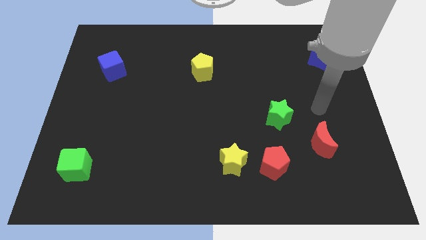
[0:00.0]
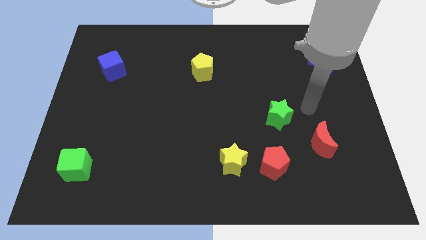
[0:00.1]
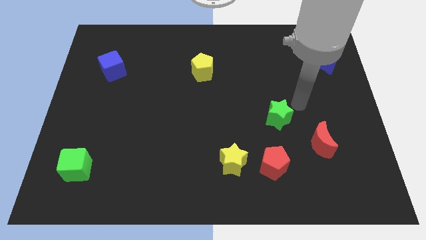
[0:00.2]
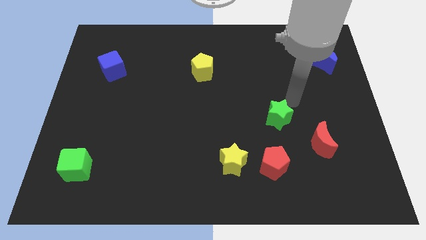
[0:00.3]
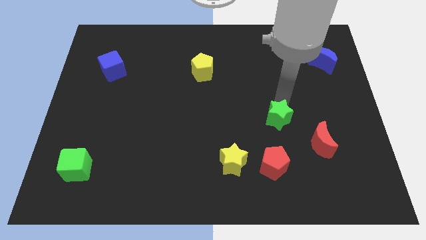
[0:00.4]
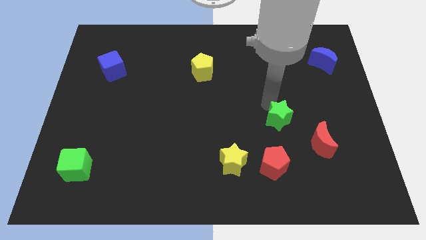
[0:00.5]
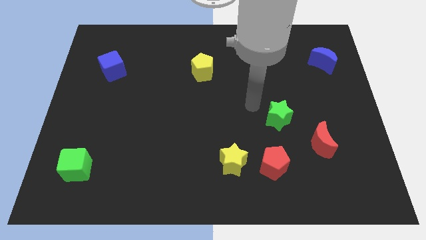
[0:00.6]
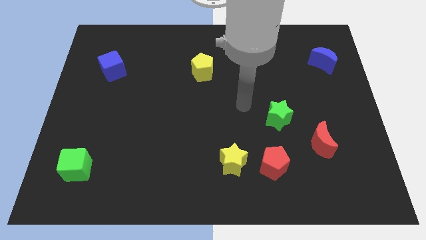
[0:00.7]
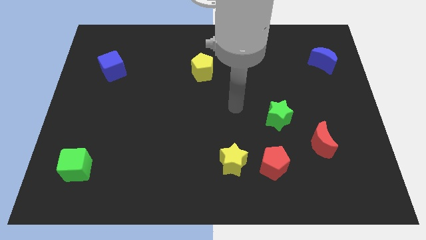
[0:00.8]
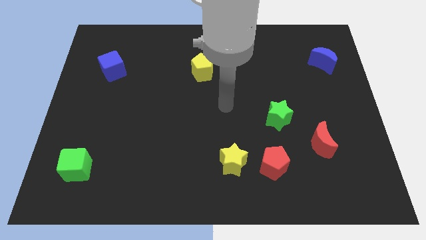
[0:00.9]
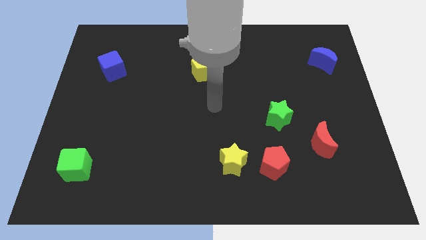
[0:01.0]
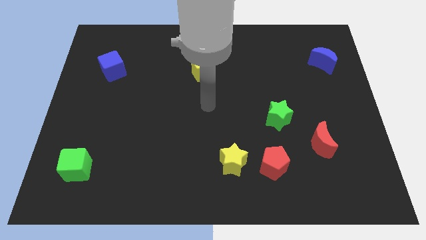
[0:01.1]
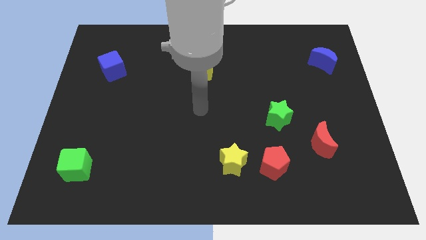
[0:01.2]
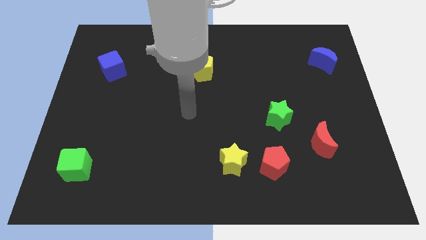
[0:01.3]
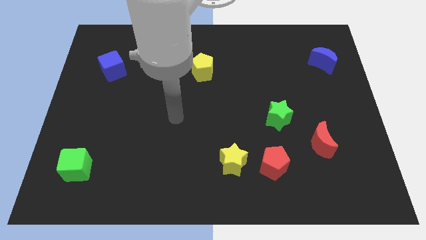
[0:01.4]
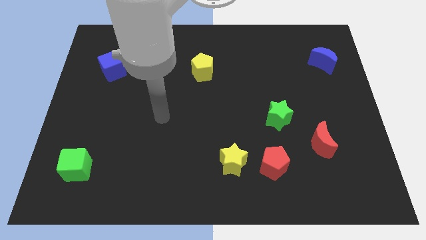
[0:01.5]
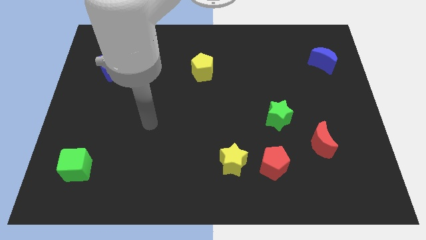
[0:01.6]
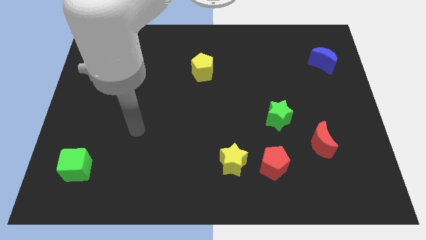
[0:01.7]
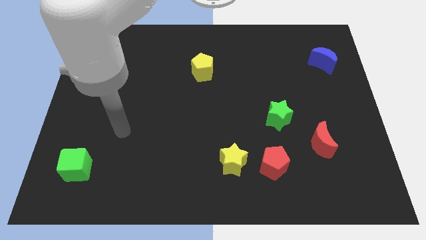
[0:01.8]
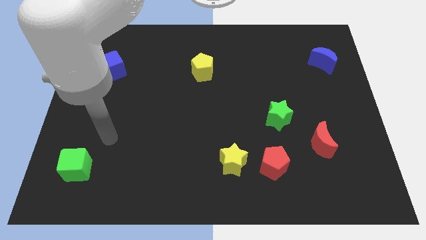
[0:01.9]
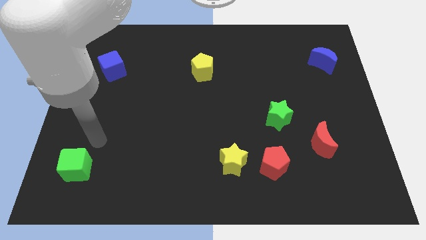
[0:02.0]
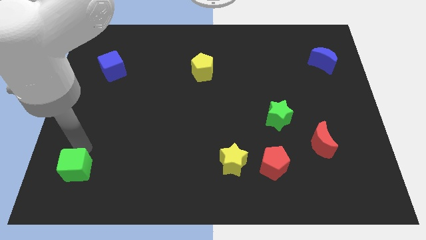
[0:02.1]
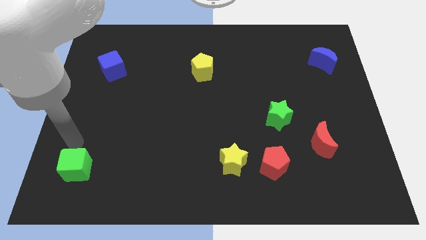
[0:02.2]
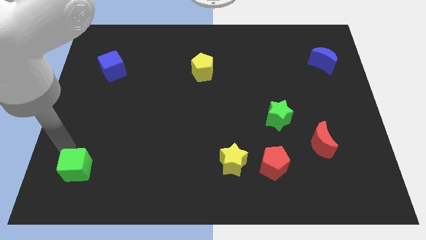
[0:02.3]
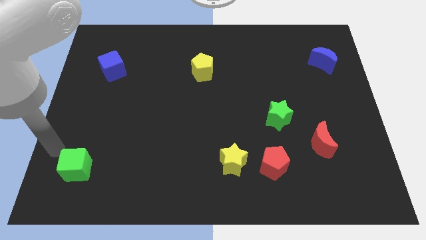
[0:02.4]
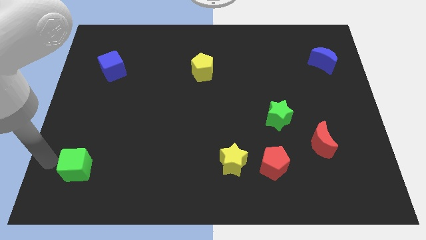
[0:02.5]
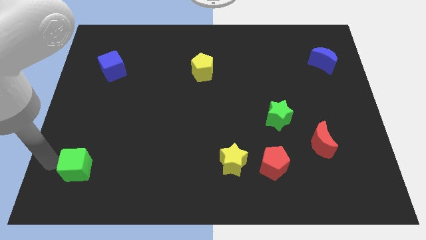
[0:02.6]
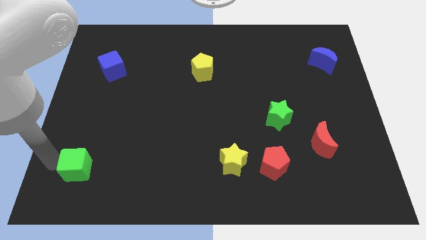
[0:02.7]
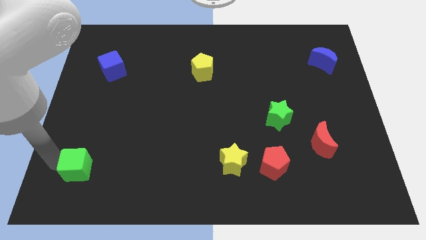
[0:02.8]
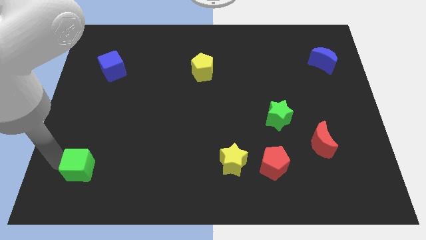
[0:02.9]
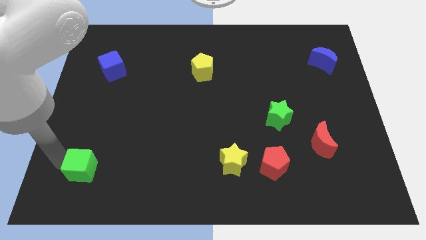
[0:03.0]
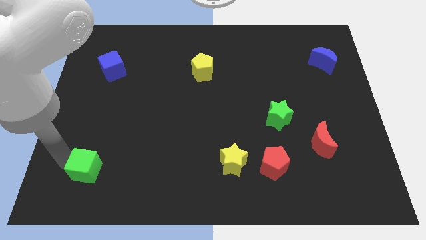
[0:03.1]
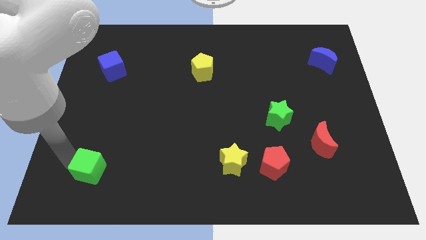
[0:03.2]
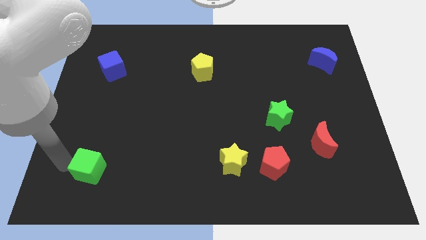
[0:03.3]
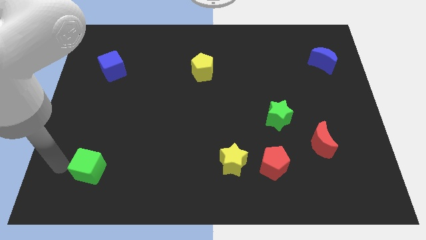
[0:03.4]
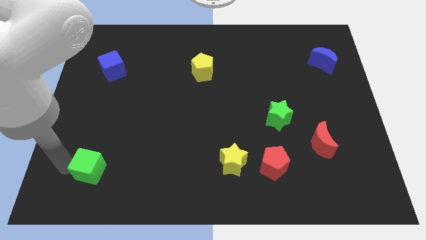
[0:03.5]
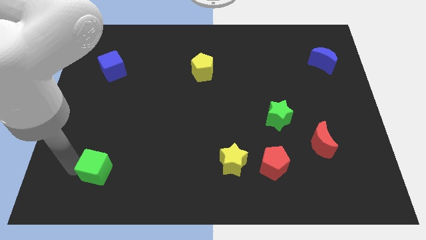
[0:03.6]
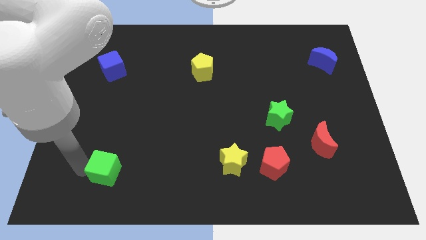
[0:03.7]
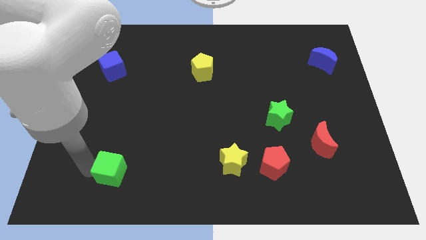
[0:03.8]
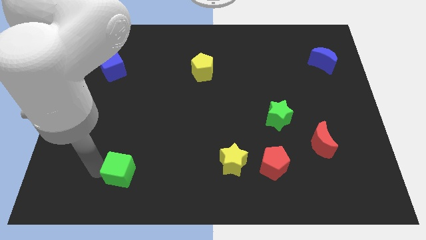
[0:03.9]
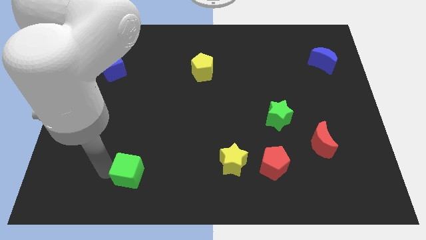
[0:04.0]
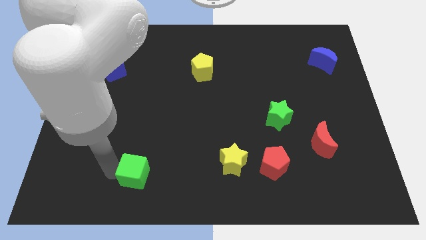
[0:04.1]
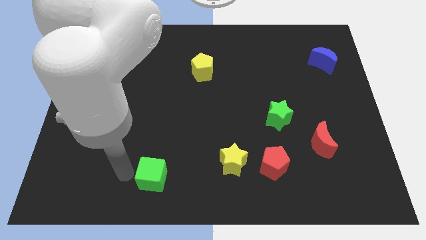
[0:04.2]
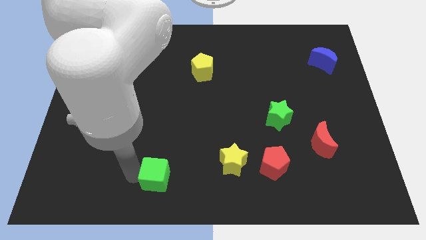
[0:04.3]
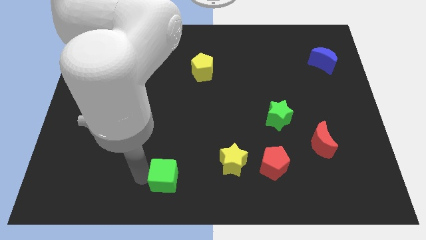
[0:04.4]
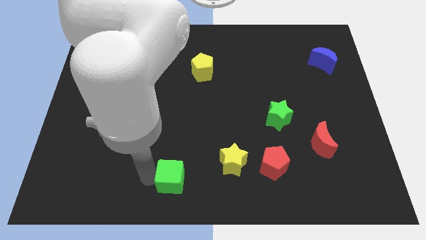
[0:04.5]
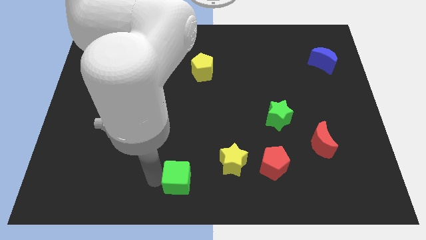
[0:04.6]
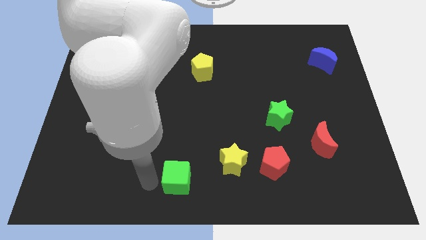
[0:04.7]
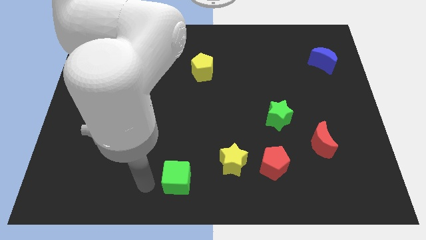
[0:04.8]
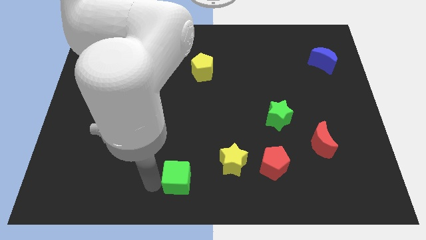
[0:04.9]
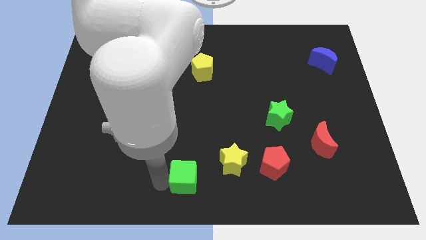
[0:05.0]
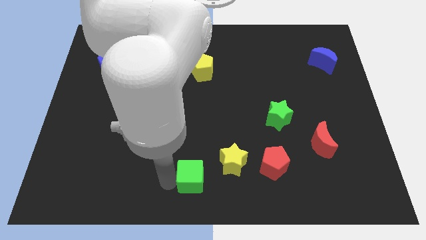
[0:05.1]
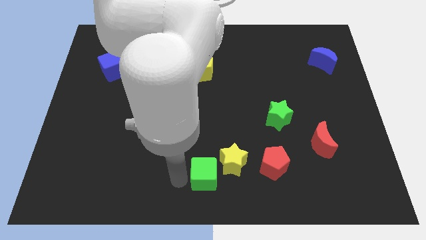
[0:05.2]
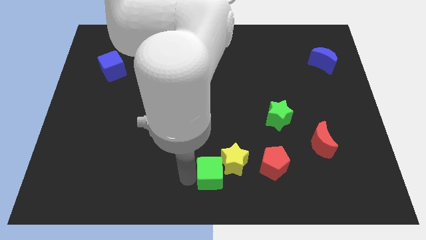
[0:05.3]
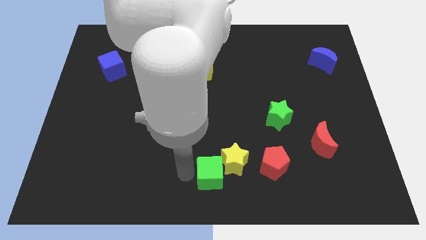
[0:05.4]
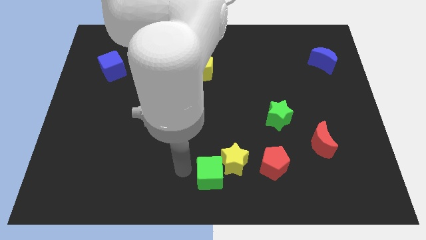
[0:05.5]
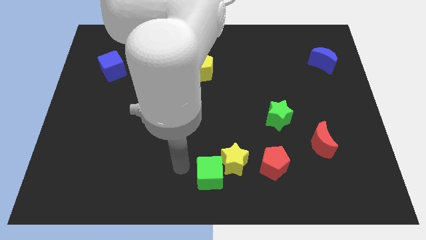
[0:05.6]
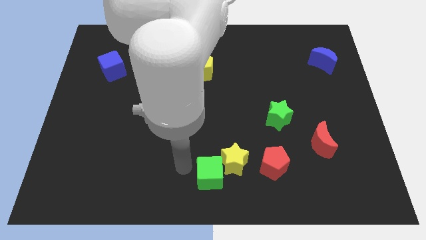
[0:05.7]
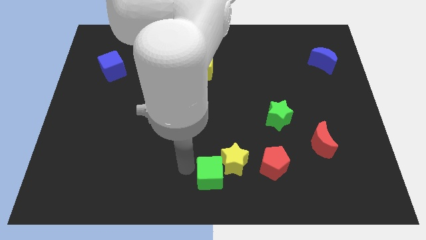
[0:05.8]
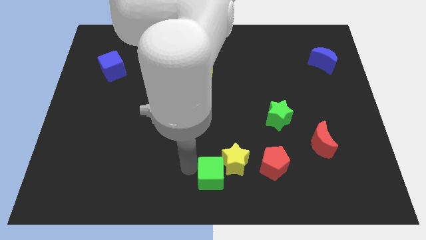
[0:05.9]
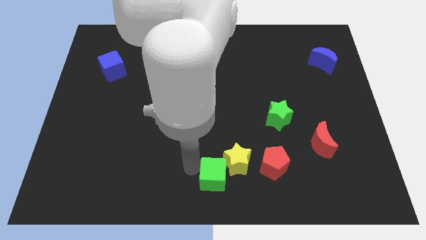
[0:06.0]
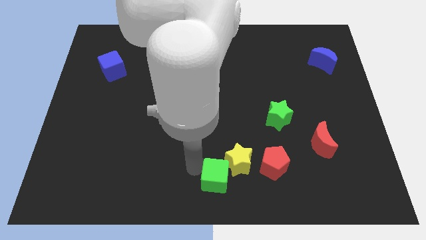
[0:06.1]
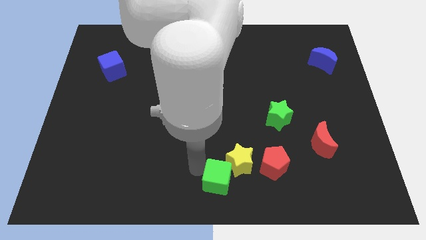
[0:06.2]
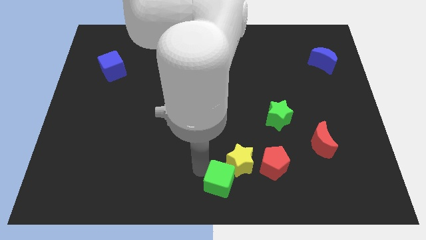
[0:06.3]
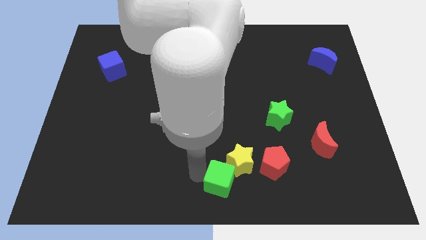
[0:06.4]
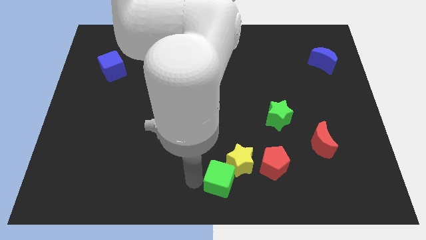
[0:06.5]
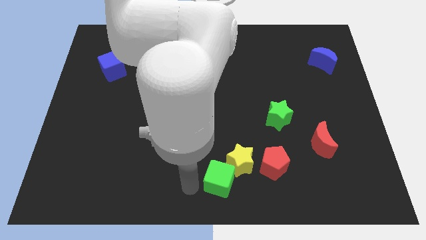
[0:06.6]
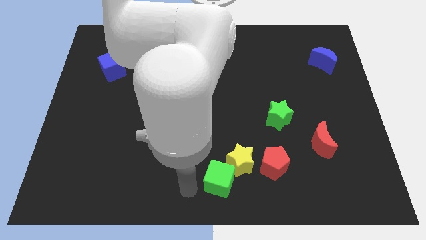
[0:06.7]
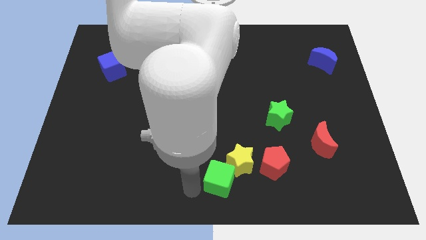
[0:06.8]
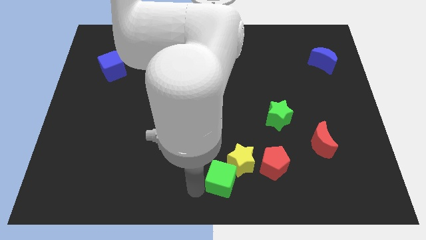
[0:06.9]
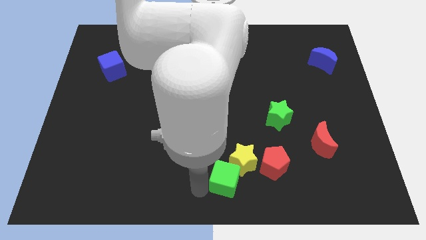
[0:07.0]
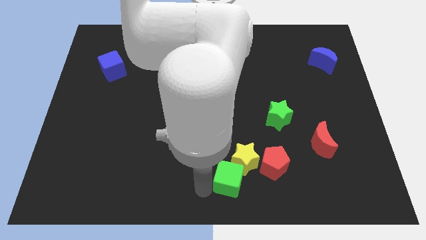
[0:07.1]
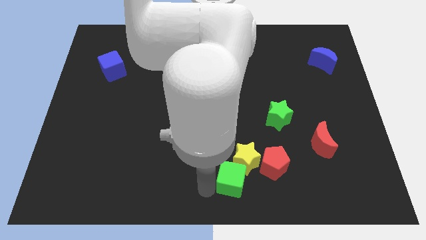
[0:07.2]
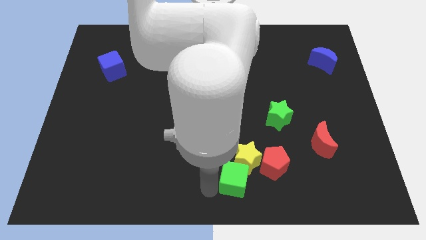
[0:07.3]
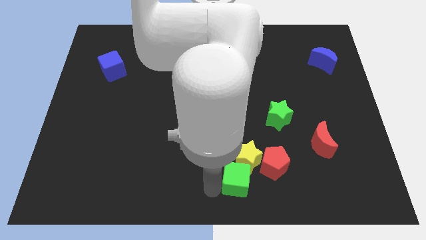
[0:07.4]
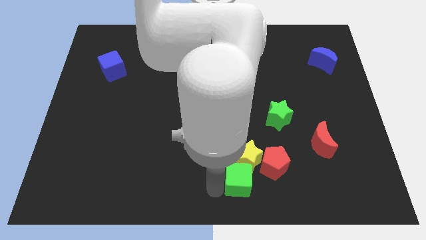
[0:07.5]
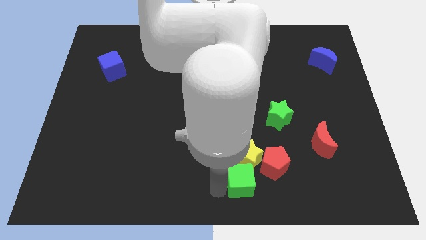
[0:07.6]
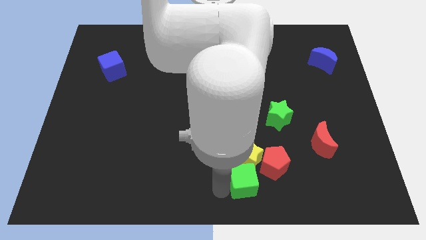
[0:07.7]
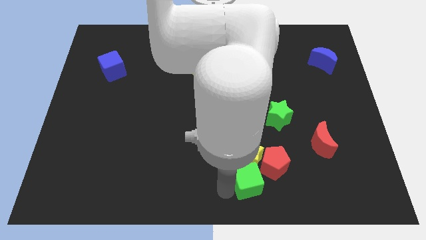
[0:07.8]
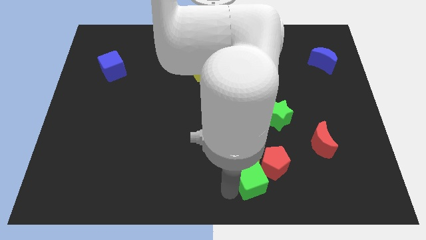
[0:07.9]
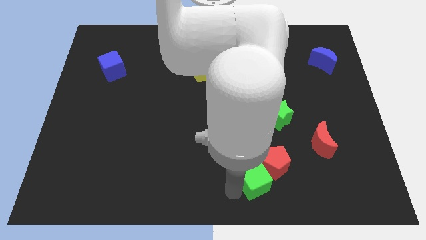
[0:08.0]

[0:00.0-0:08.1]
push the green cube towards the red pentagon
